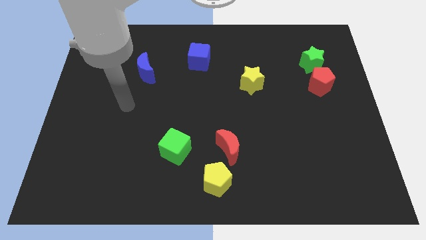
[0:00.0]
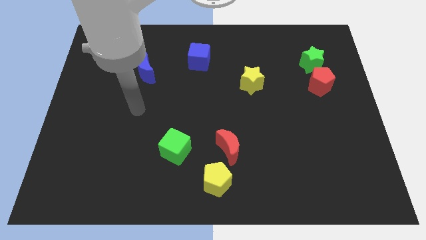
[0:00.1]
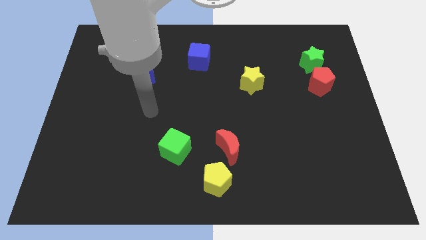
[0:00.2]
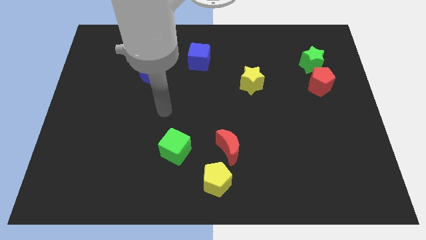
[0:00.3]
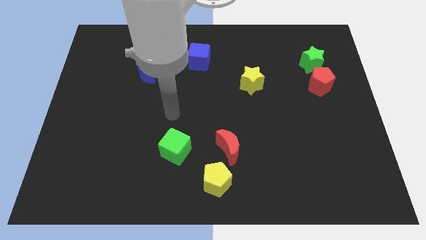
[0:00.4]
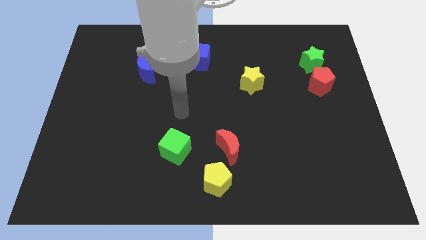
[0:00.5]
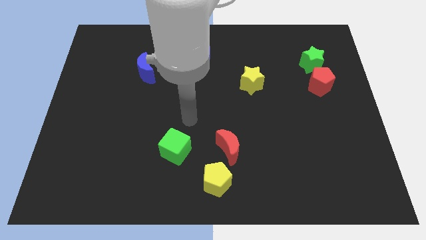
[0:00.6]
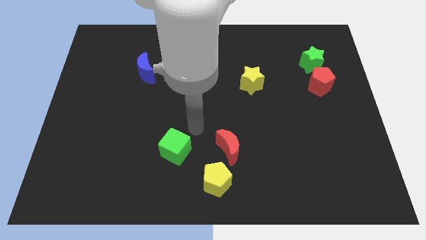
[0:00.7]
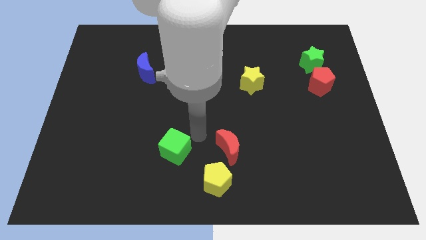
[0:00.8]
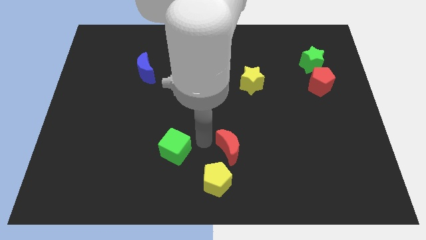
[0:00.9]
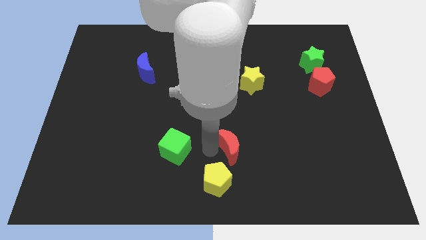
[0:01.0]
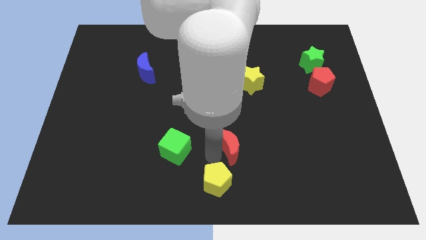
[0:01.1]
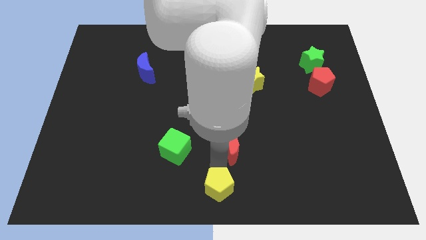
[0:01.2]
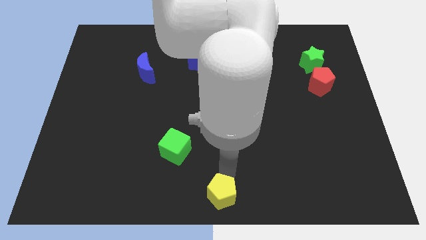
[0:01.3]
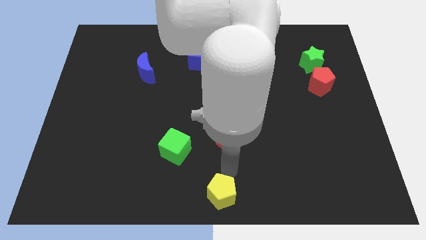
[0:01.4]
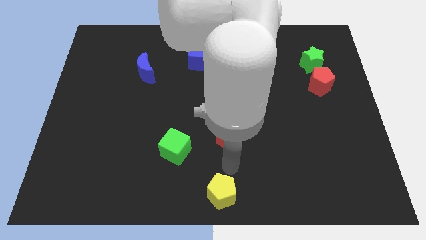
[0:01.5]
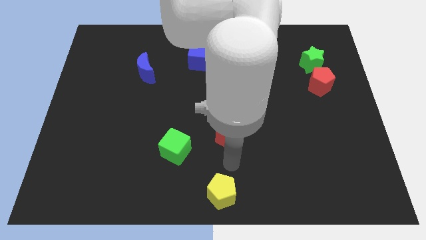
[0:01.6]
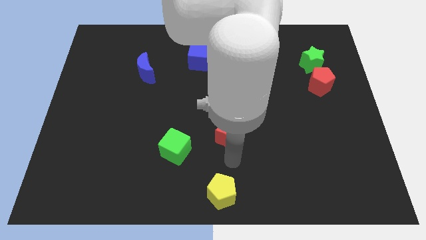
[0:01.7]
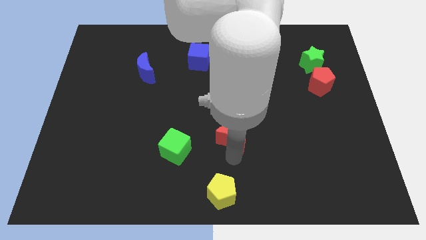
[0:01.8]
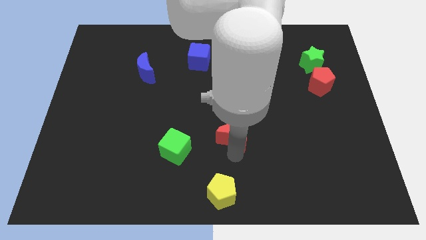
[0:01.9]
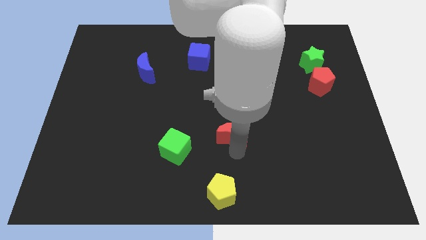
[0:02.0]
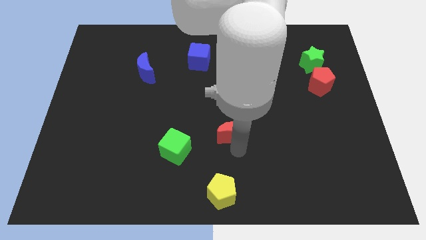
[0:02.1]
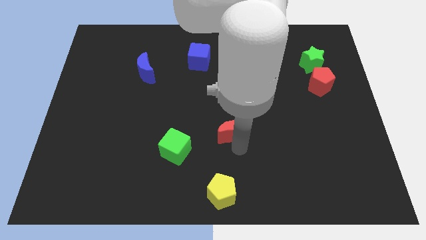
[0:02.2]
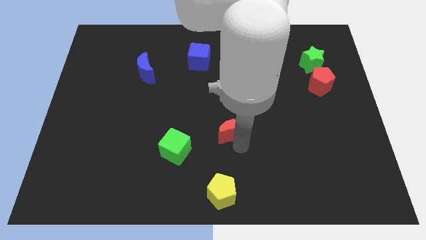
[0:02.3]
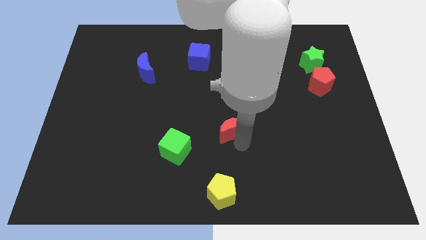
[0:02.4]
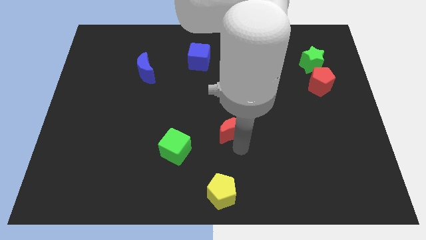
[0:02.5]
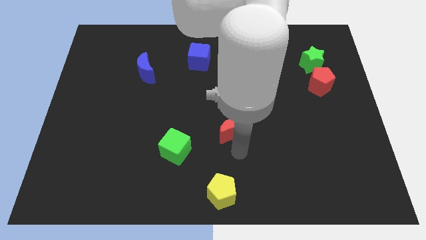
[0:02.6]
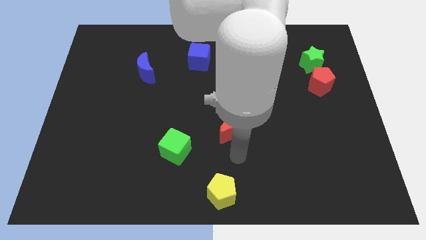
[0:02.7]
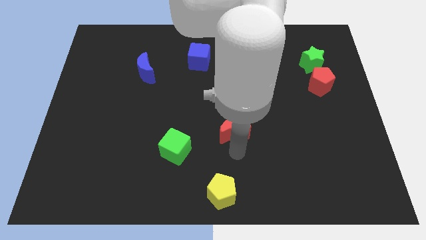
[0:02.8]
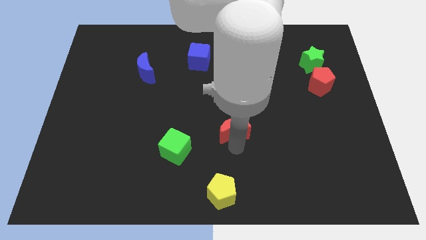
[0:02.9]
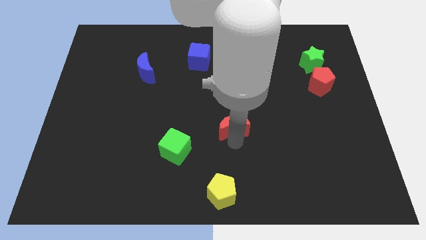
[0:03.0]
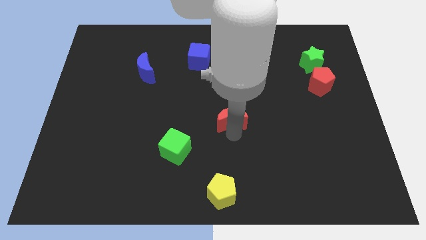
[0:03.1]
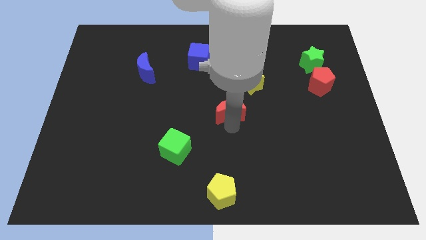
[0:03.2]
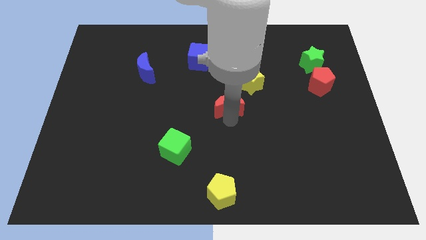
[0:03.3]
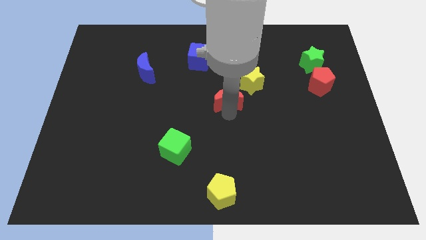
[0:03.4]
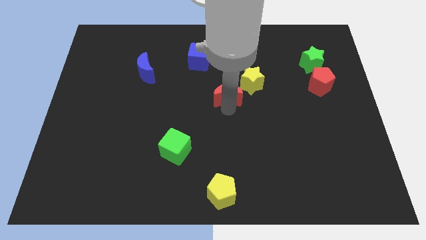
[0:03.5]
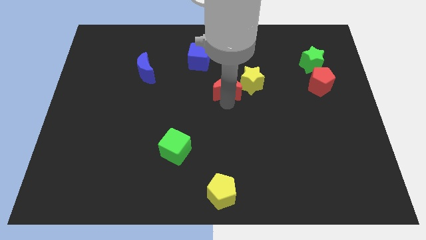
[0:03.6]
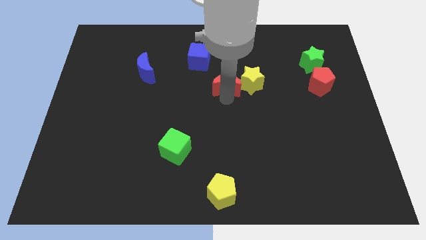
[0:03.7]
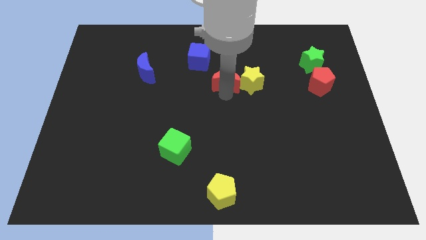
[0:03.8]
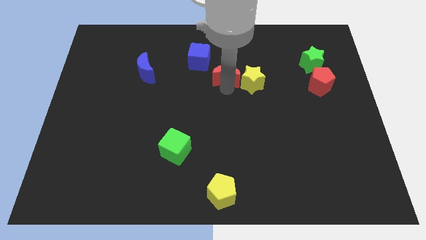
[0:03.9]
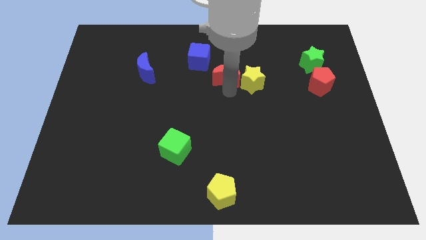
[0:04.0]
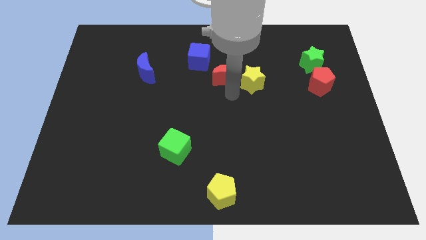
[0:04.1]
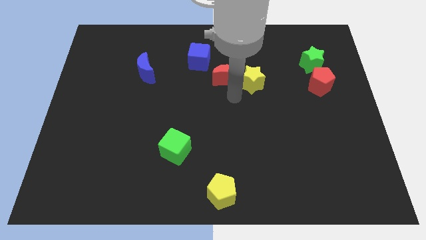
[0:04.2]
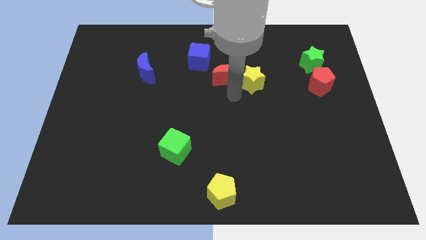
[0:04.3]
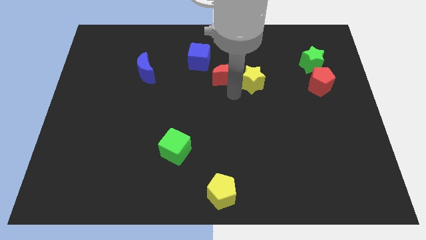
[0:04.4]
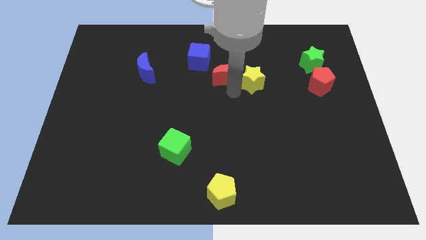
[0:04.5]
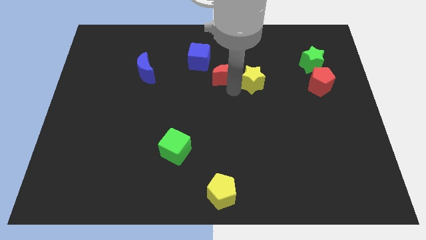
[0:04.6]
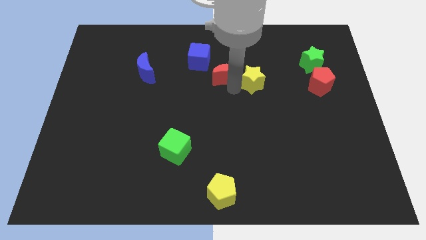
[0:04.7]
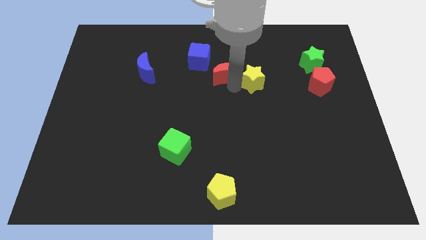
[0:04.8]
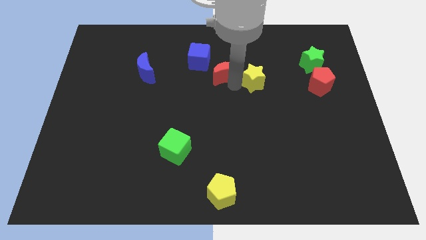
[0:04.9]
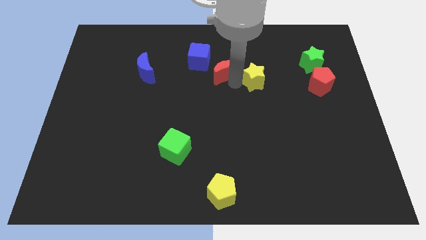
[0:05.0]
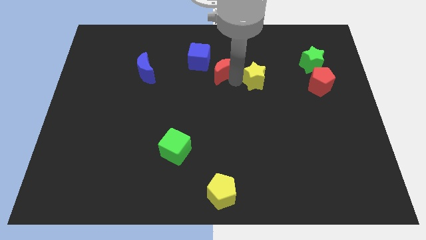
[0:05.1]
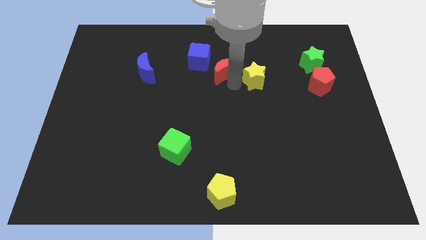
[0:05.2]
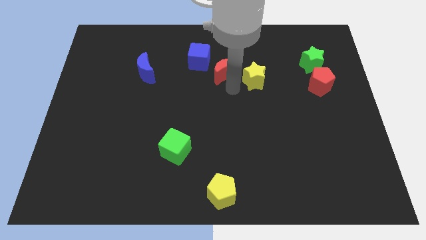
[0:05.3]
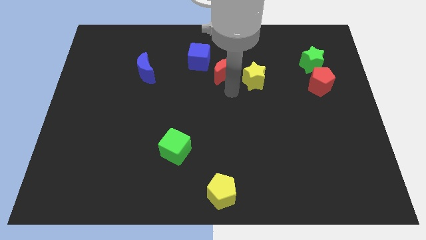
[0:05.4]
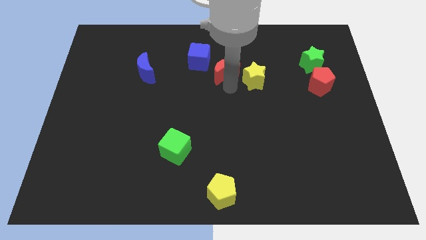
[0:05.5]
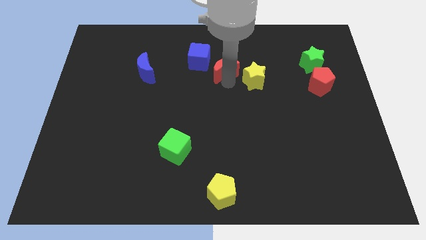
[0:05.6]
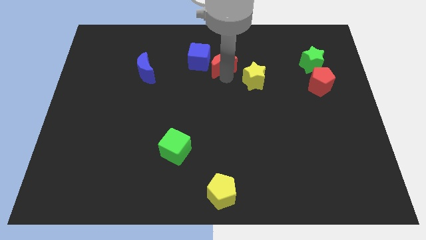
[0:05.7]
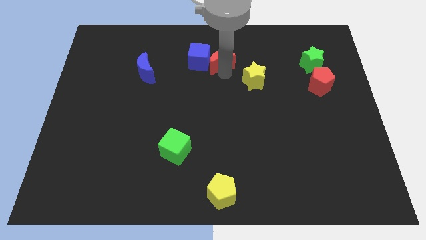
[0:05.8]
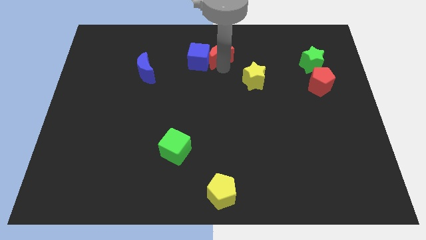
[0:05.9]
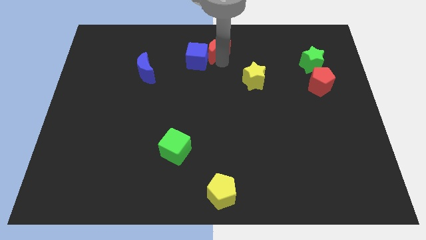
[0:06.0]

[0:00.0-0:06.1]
push the red moon to the top

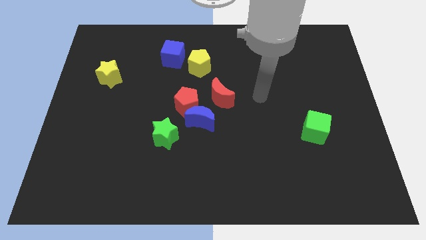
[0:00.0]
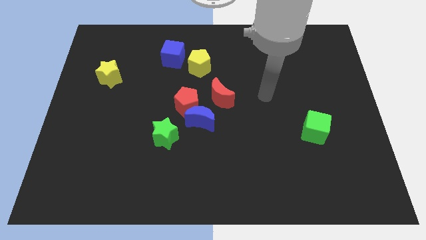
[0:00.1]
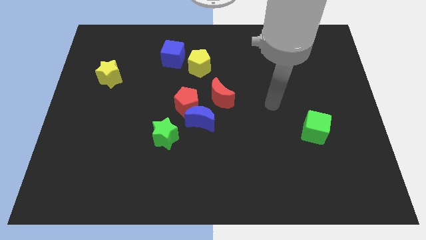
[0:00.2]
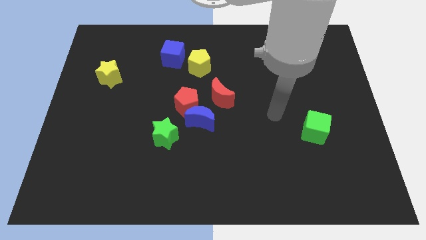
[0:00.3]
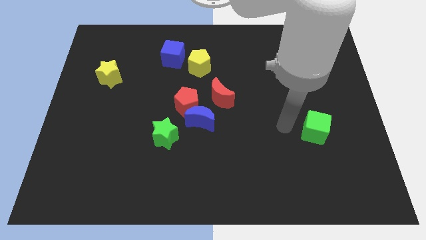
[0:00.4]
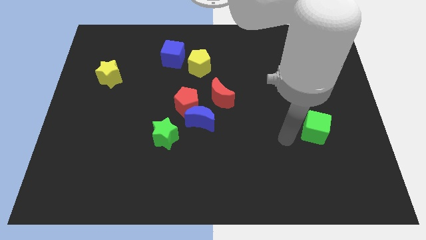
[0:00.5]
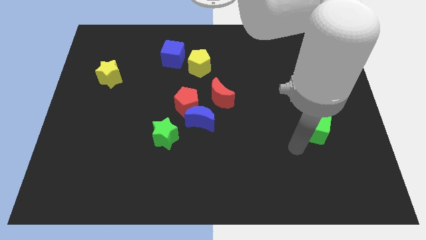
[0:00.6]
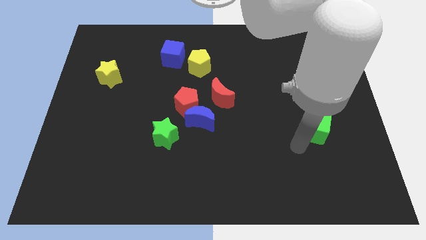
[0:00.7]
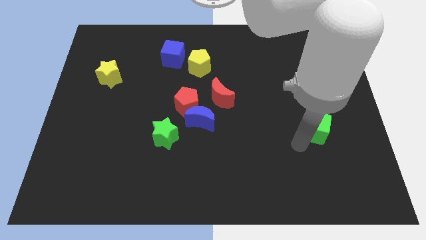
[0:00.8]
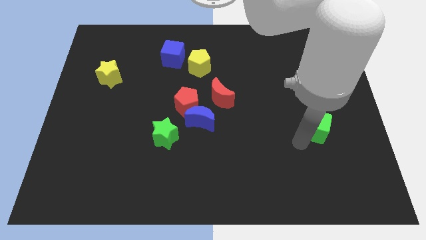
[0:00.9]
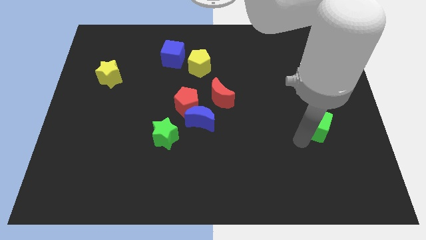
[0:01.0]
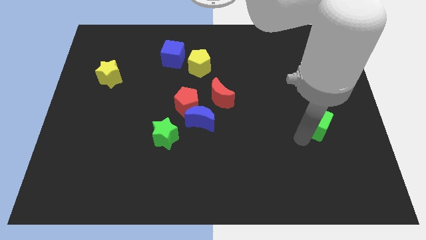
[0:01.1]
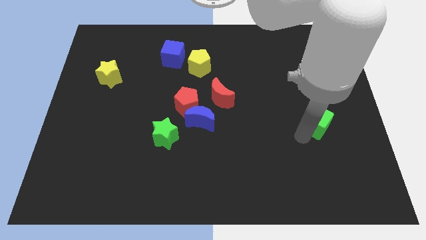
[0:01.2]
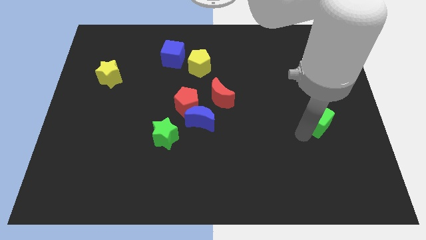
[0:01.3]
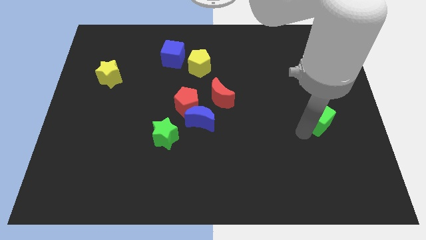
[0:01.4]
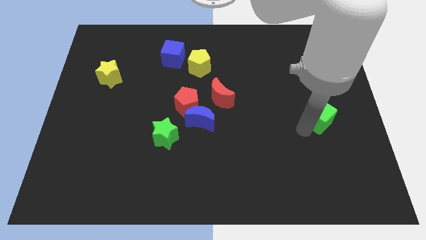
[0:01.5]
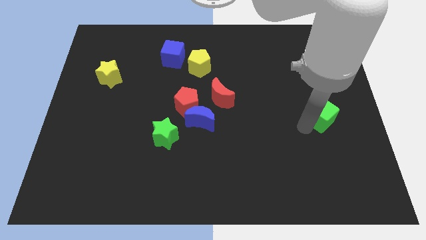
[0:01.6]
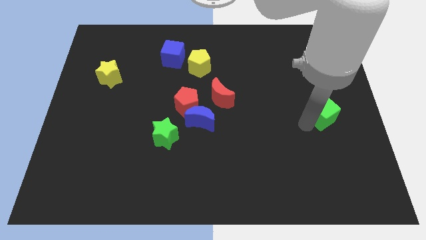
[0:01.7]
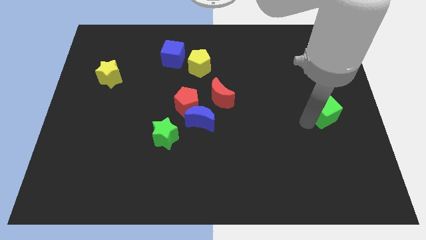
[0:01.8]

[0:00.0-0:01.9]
push the green cube to the right side
